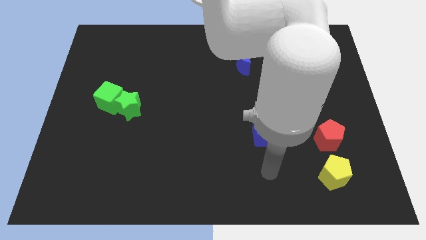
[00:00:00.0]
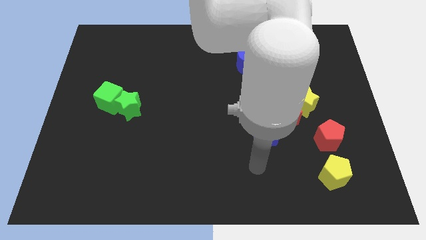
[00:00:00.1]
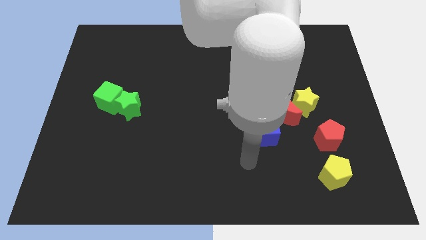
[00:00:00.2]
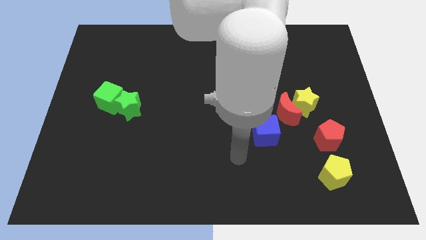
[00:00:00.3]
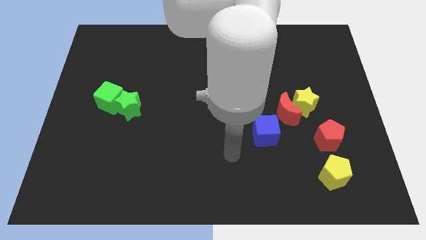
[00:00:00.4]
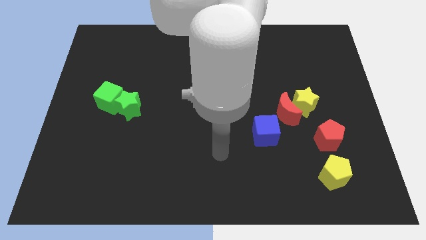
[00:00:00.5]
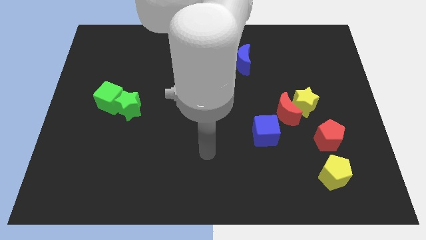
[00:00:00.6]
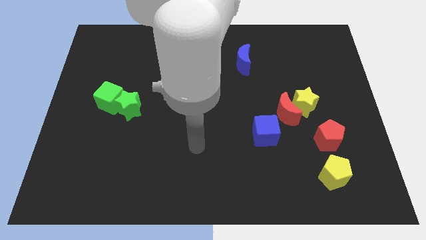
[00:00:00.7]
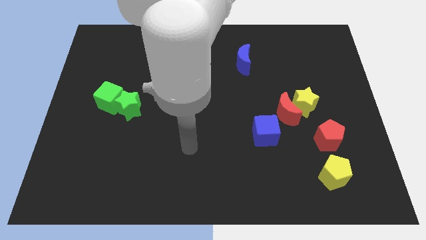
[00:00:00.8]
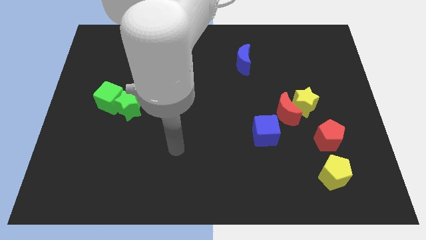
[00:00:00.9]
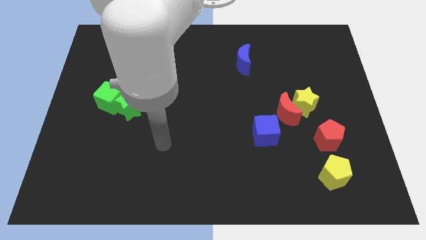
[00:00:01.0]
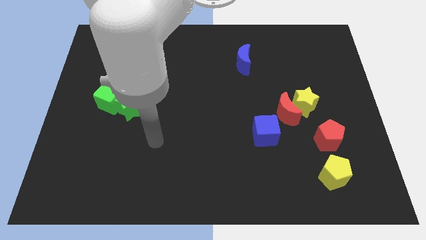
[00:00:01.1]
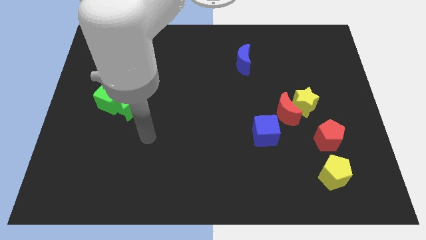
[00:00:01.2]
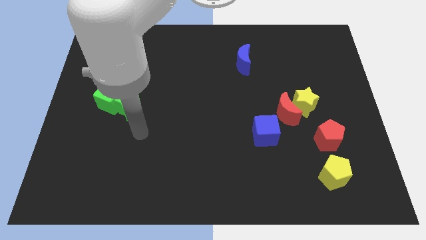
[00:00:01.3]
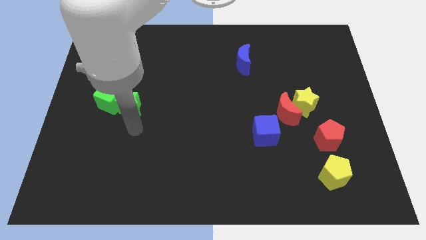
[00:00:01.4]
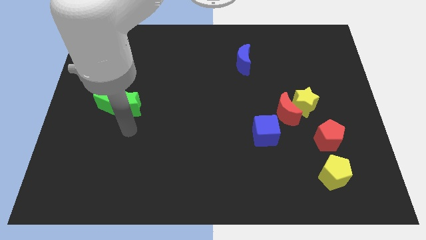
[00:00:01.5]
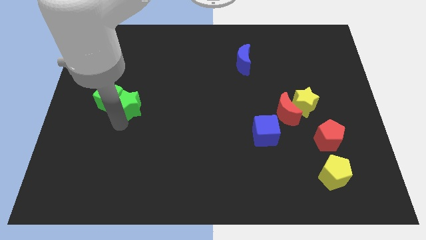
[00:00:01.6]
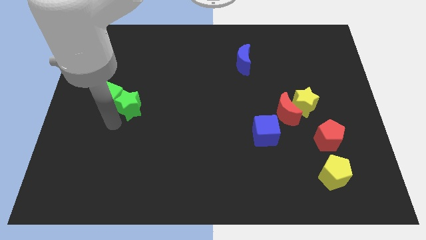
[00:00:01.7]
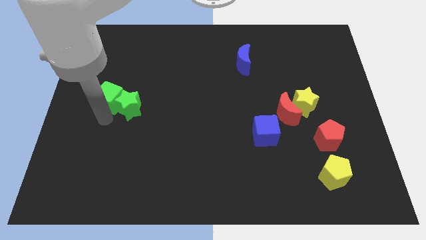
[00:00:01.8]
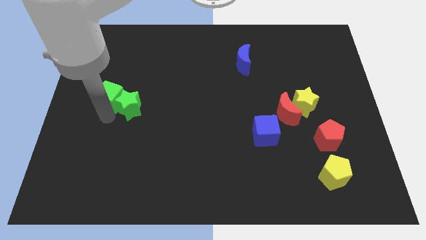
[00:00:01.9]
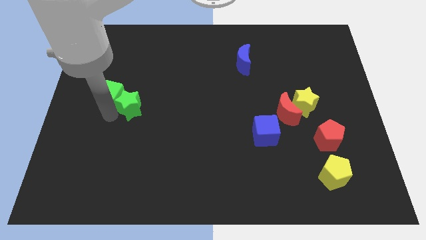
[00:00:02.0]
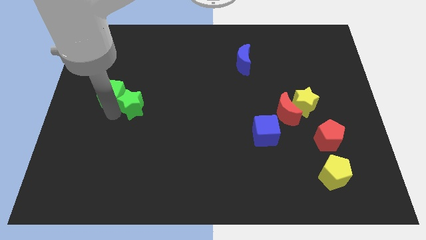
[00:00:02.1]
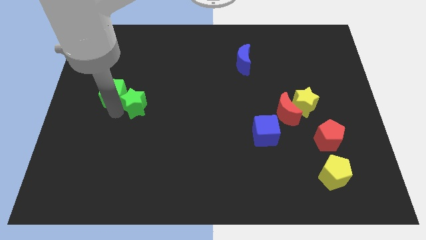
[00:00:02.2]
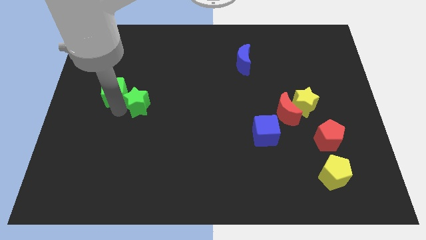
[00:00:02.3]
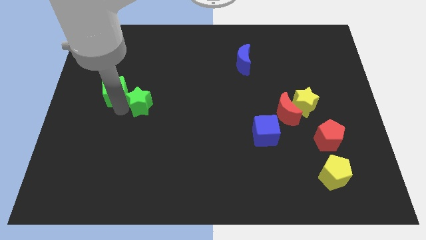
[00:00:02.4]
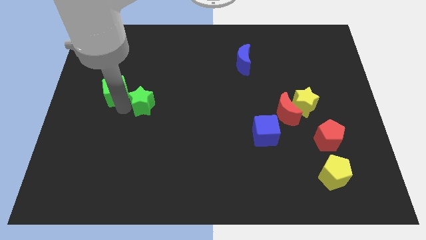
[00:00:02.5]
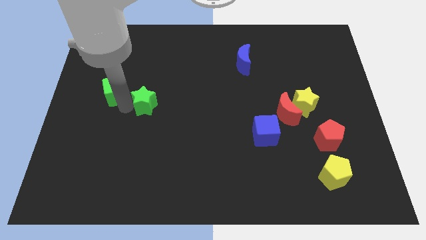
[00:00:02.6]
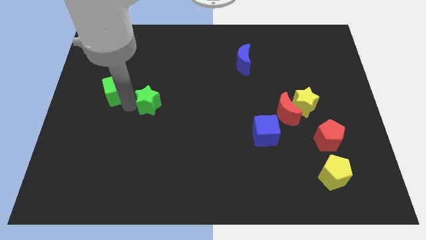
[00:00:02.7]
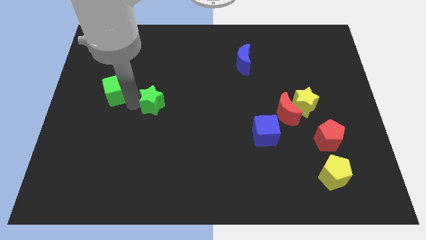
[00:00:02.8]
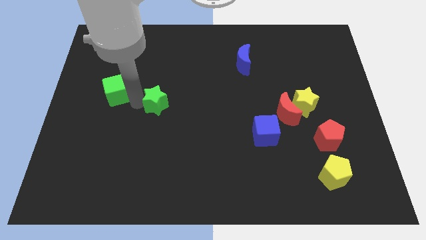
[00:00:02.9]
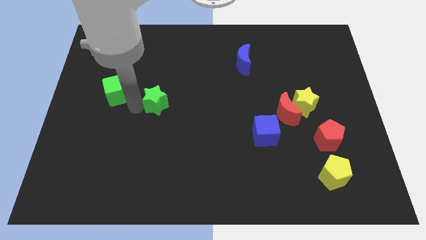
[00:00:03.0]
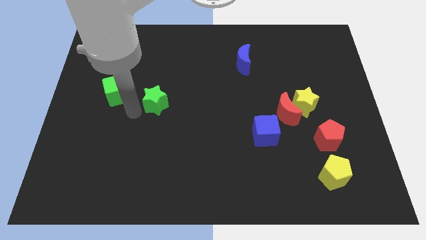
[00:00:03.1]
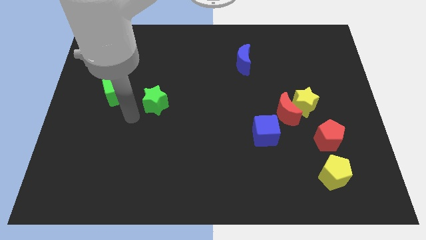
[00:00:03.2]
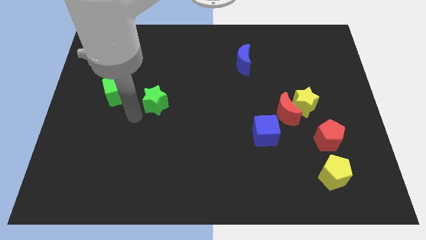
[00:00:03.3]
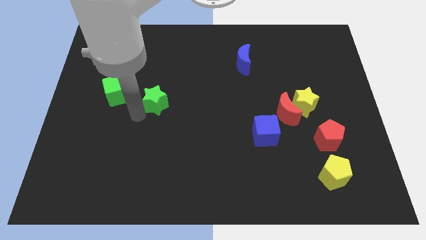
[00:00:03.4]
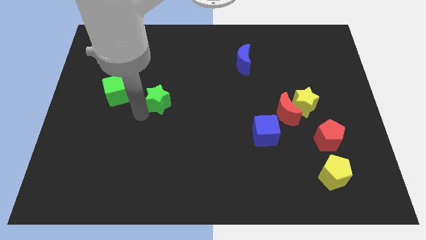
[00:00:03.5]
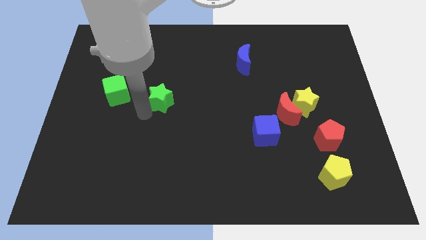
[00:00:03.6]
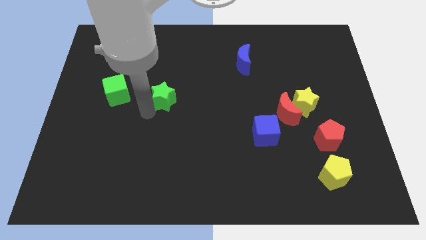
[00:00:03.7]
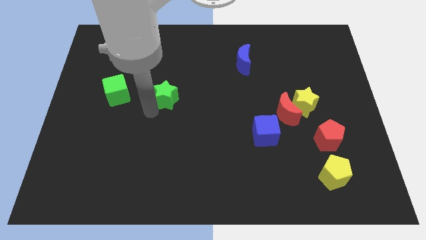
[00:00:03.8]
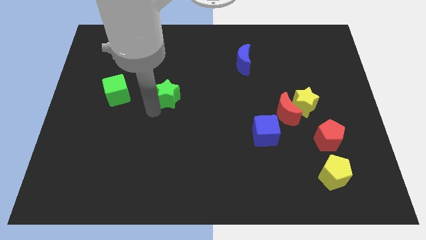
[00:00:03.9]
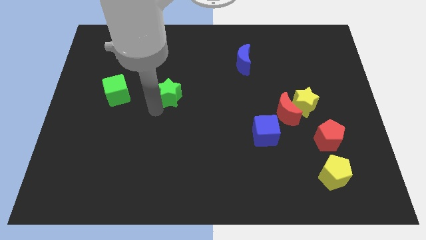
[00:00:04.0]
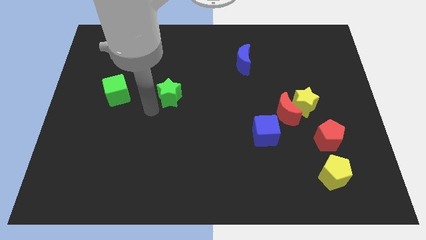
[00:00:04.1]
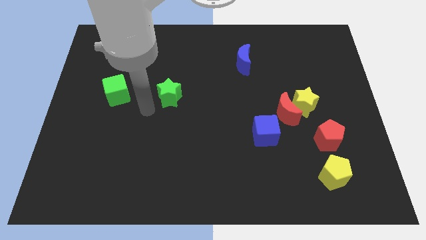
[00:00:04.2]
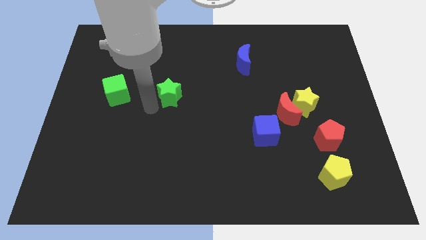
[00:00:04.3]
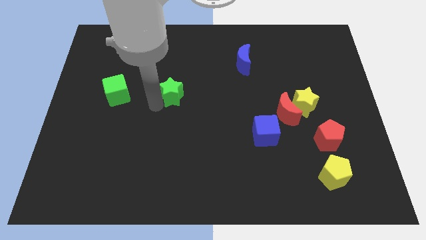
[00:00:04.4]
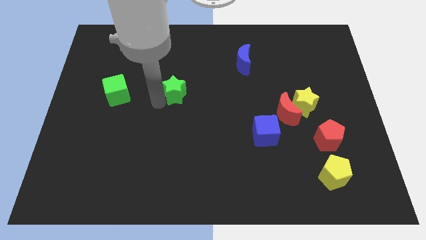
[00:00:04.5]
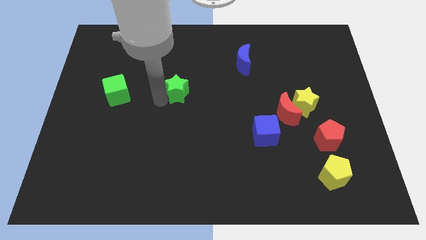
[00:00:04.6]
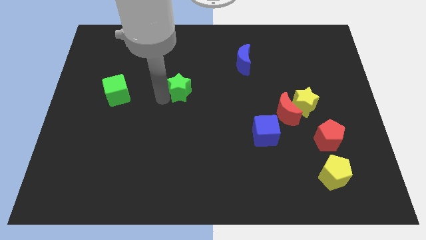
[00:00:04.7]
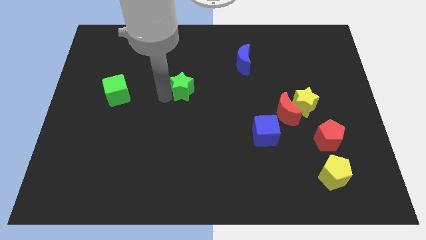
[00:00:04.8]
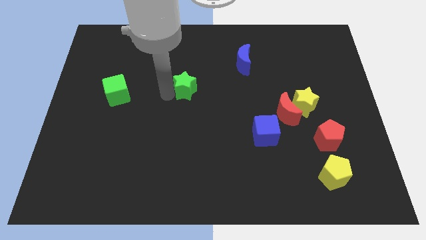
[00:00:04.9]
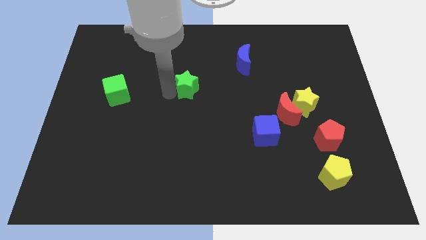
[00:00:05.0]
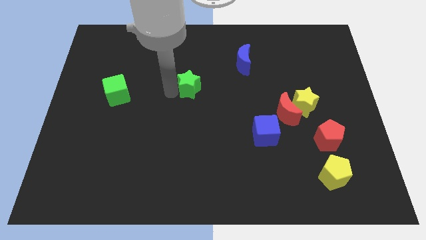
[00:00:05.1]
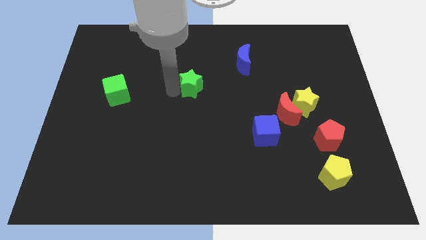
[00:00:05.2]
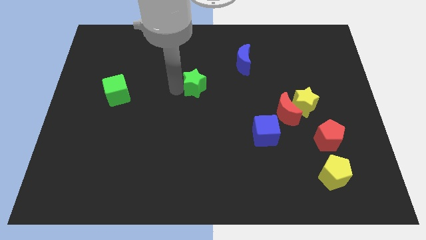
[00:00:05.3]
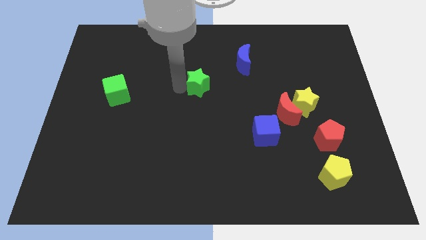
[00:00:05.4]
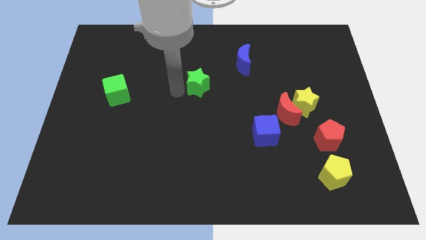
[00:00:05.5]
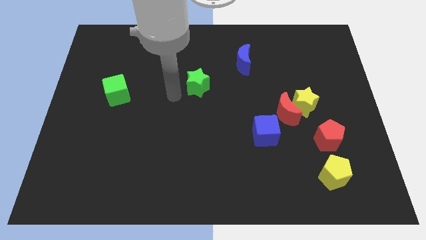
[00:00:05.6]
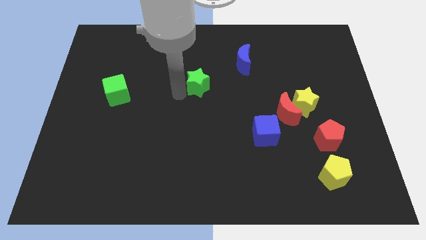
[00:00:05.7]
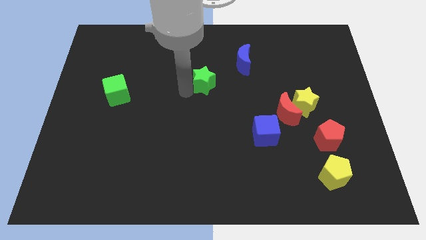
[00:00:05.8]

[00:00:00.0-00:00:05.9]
push the green star to the bottom left of the blue moon

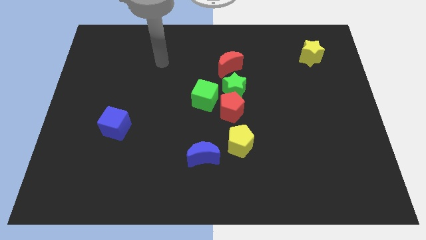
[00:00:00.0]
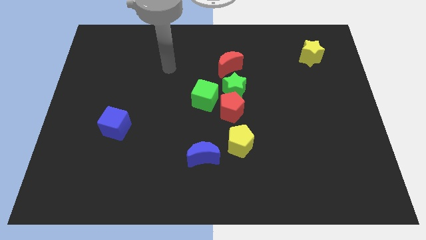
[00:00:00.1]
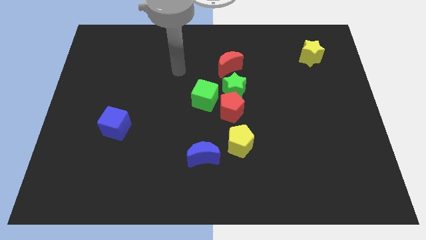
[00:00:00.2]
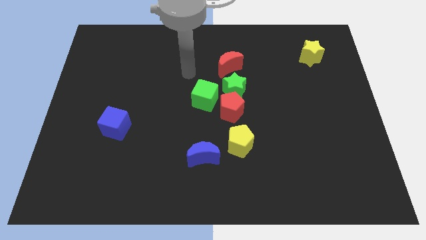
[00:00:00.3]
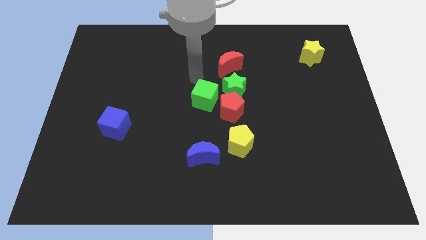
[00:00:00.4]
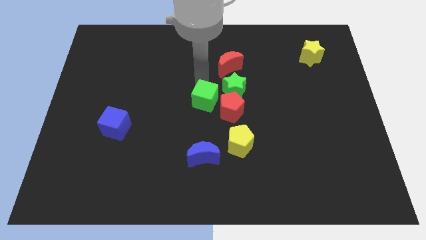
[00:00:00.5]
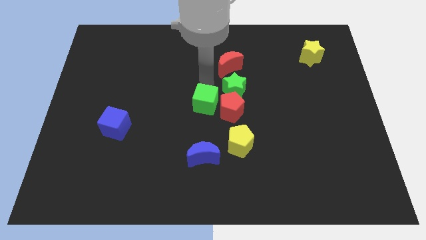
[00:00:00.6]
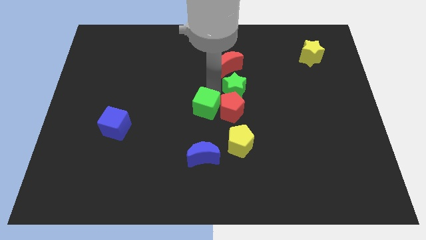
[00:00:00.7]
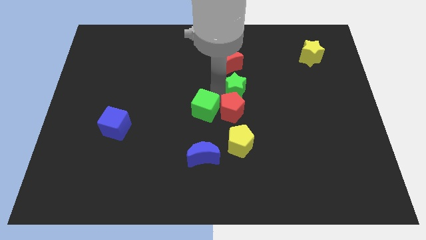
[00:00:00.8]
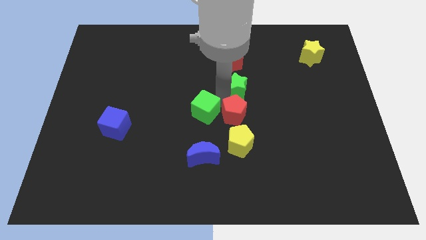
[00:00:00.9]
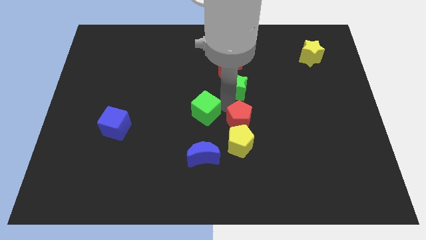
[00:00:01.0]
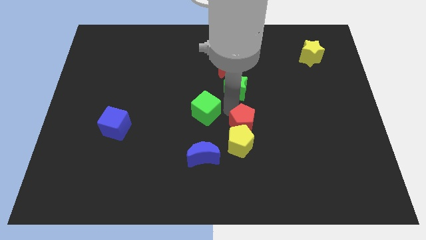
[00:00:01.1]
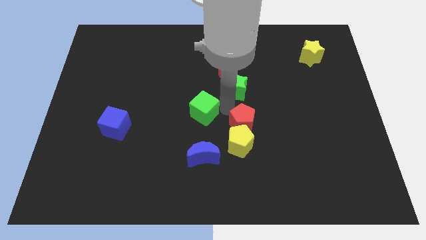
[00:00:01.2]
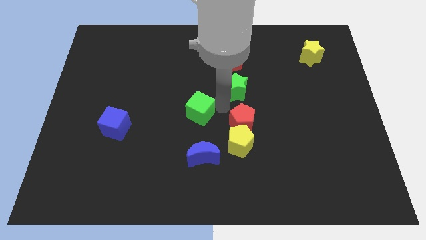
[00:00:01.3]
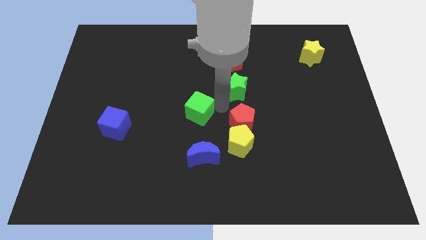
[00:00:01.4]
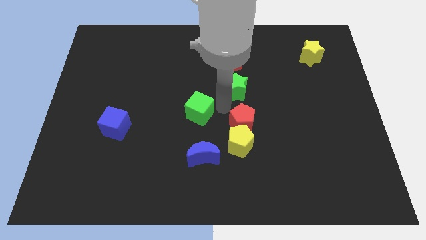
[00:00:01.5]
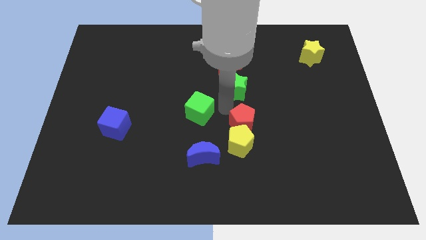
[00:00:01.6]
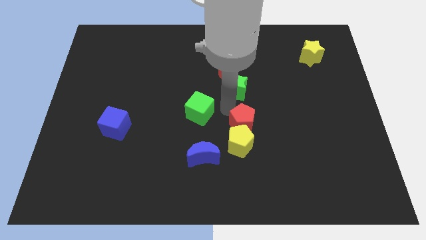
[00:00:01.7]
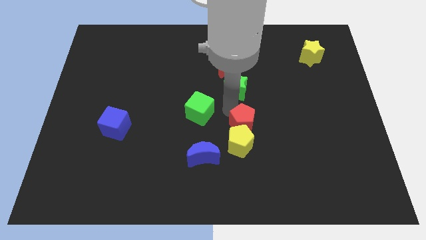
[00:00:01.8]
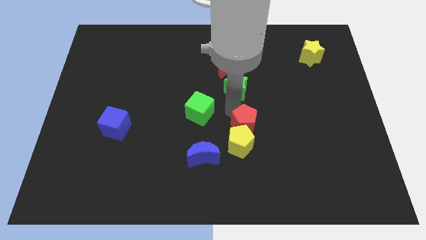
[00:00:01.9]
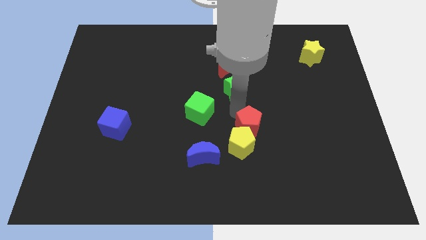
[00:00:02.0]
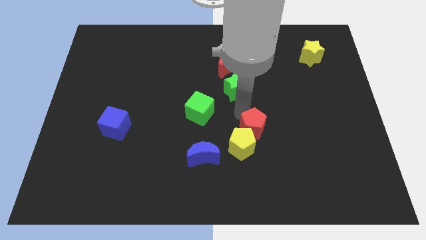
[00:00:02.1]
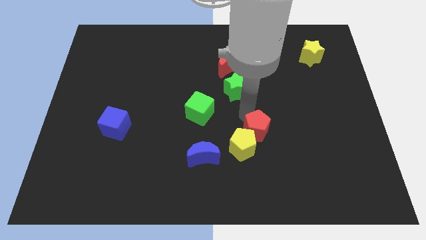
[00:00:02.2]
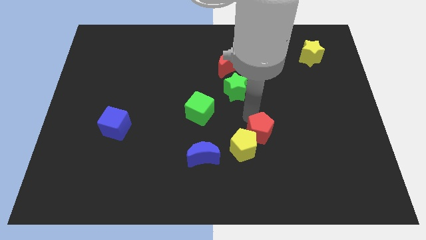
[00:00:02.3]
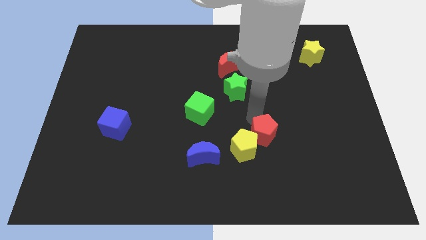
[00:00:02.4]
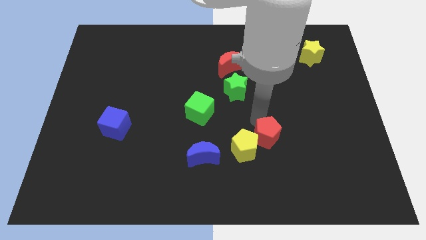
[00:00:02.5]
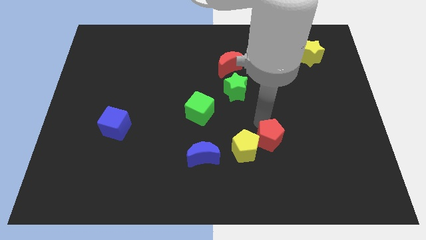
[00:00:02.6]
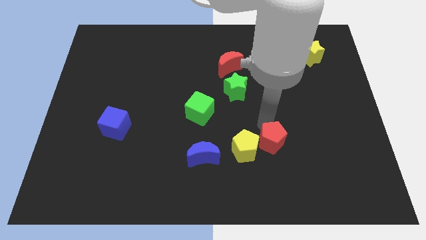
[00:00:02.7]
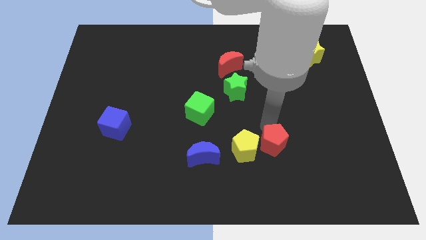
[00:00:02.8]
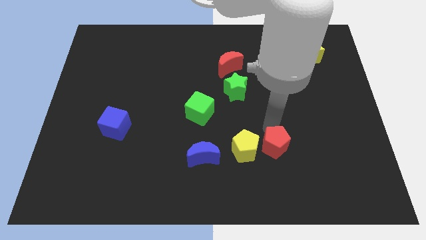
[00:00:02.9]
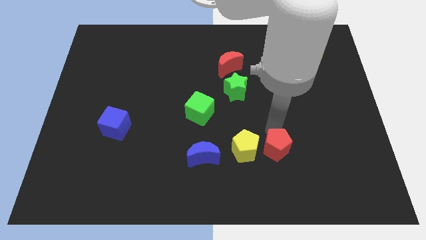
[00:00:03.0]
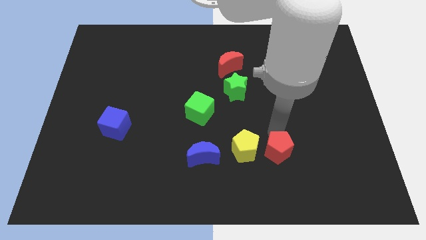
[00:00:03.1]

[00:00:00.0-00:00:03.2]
slide the red pentagon to the bottom right of the yellow pentagon
